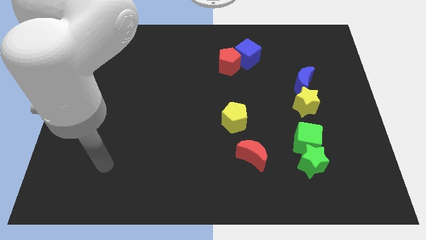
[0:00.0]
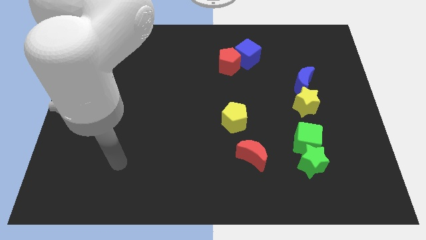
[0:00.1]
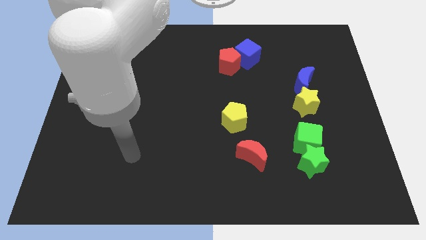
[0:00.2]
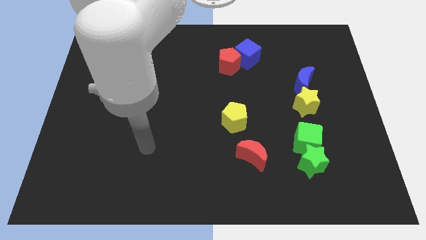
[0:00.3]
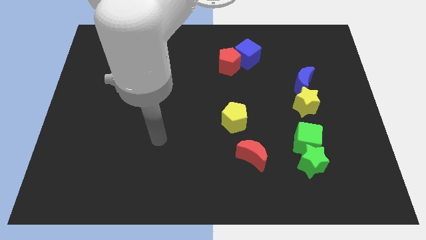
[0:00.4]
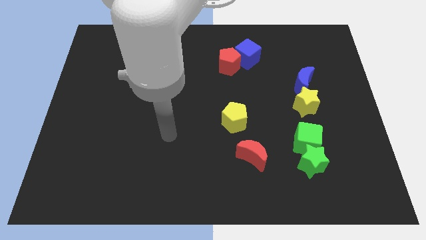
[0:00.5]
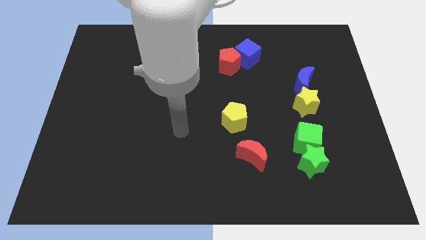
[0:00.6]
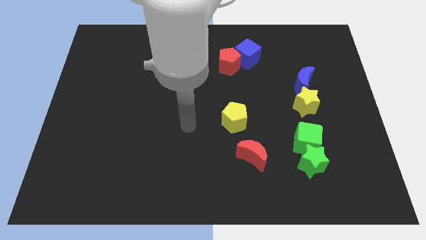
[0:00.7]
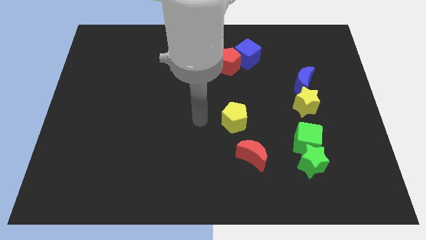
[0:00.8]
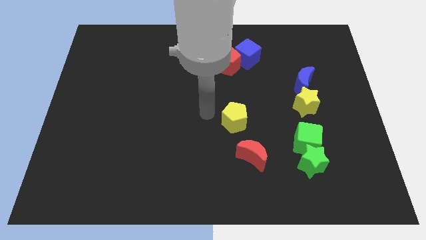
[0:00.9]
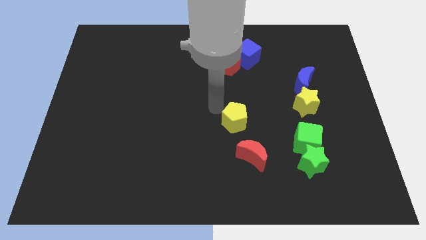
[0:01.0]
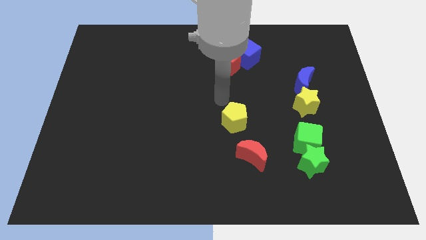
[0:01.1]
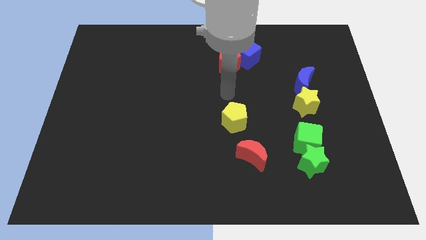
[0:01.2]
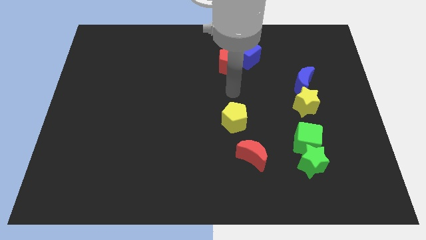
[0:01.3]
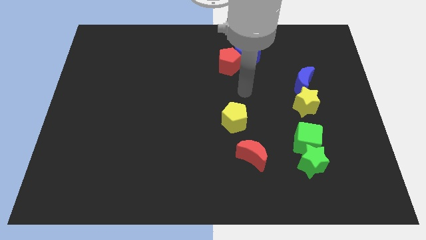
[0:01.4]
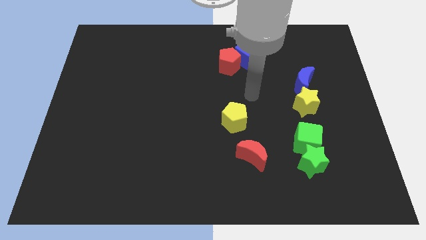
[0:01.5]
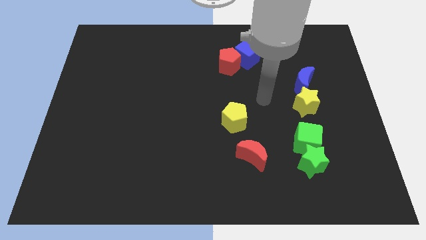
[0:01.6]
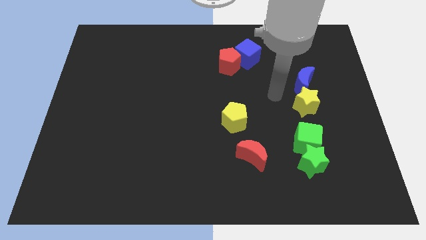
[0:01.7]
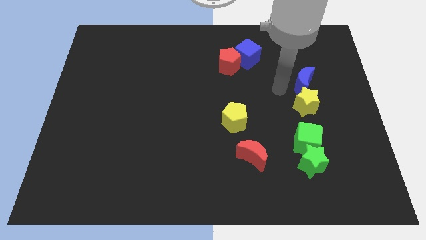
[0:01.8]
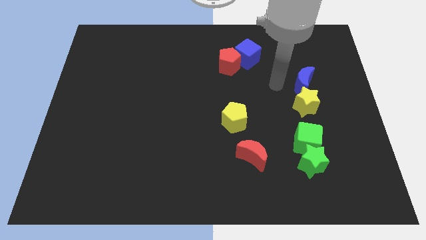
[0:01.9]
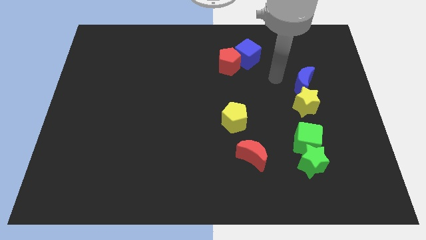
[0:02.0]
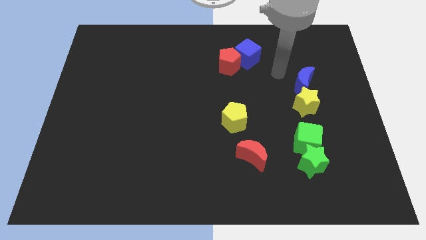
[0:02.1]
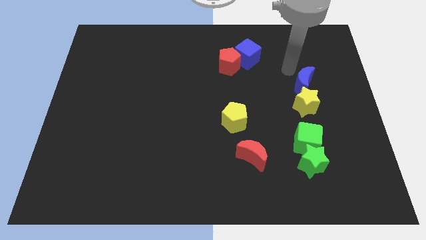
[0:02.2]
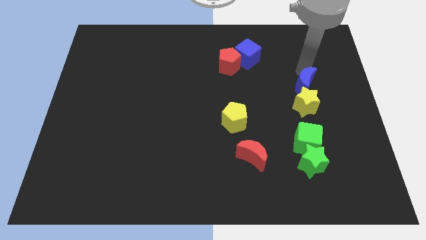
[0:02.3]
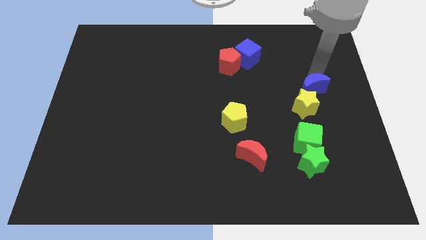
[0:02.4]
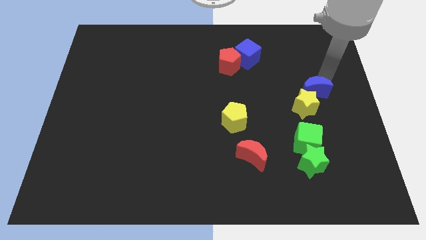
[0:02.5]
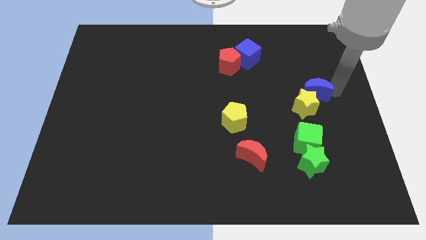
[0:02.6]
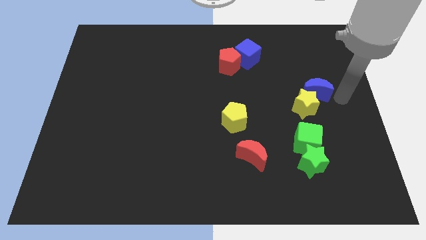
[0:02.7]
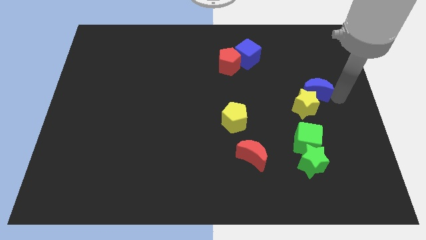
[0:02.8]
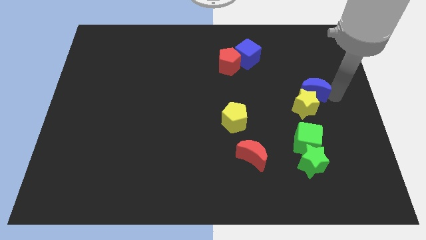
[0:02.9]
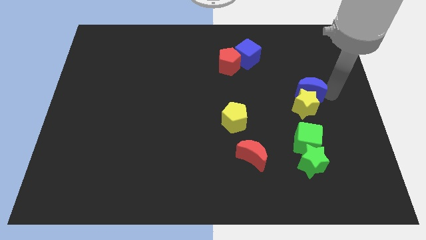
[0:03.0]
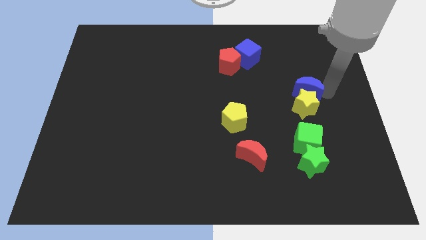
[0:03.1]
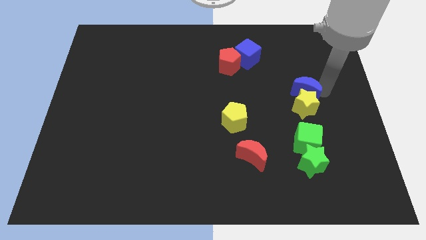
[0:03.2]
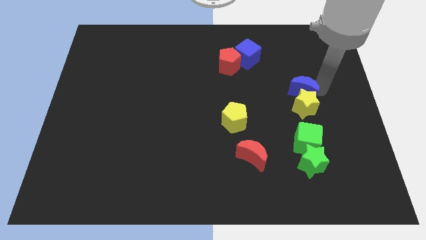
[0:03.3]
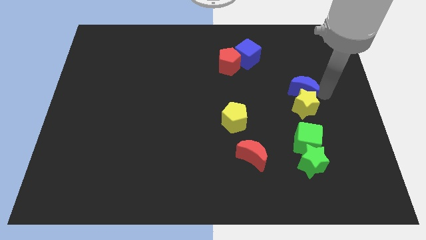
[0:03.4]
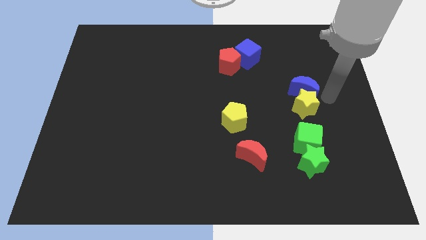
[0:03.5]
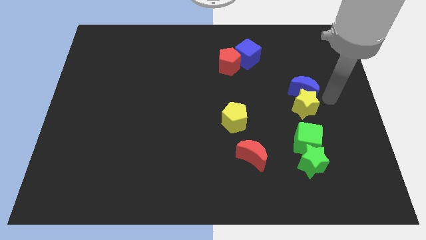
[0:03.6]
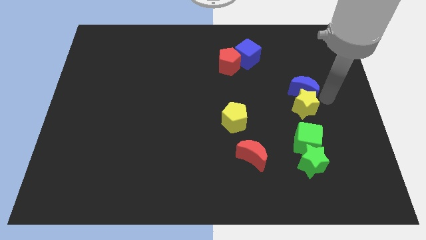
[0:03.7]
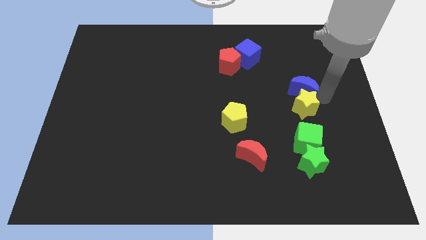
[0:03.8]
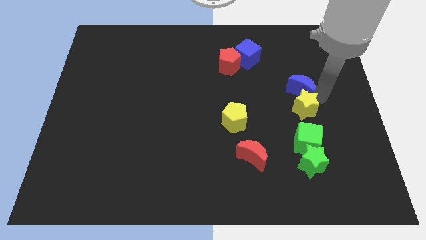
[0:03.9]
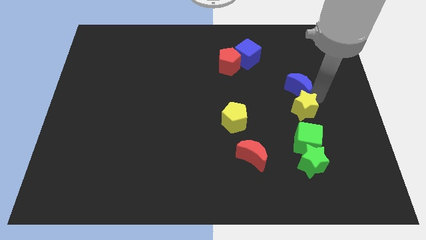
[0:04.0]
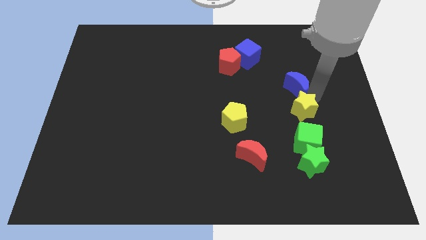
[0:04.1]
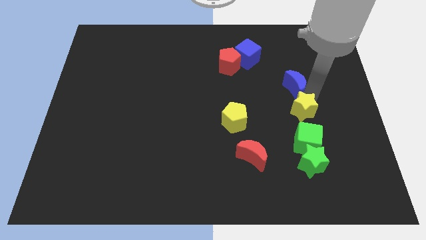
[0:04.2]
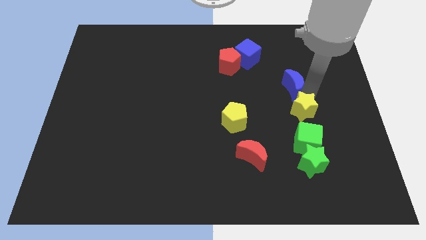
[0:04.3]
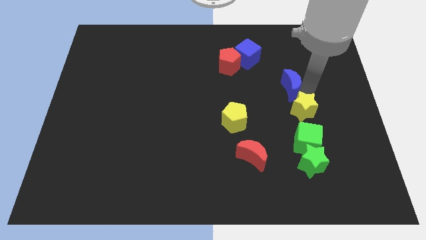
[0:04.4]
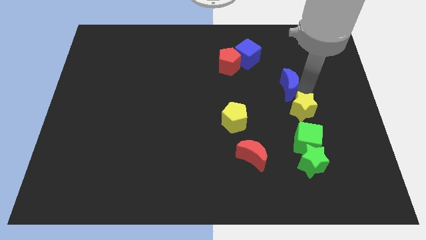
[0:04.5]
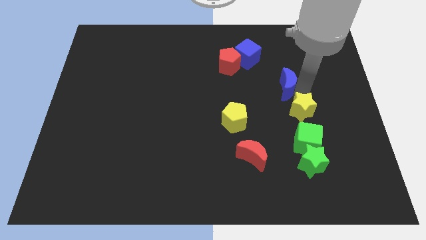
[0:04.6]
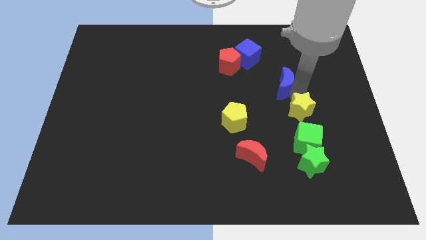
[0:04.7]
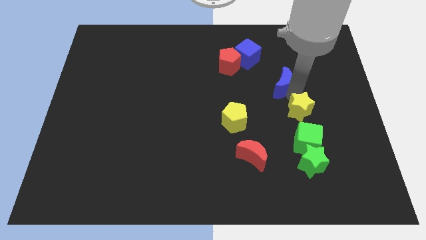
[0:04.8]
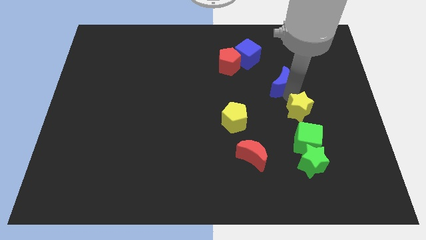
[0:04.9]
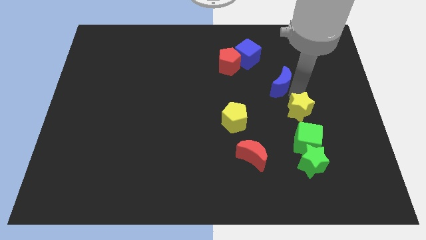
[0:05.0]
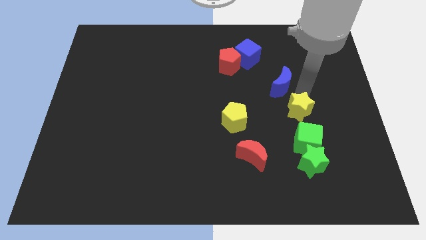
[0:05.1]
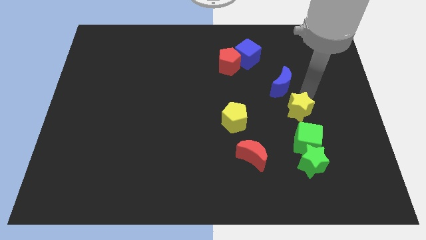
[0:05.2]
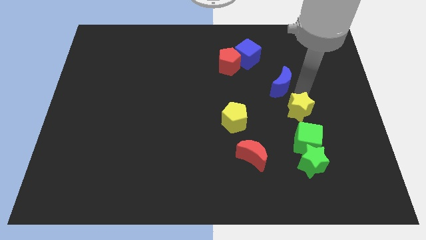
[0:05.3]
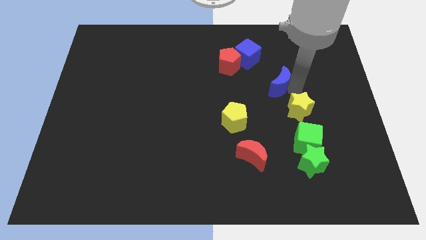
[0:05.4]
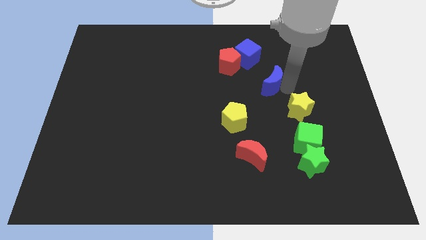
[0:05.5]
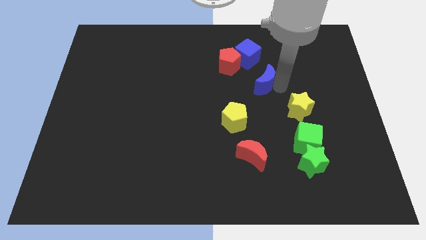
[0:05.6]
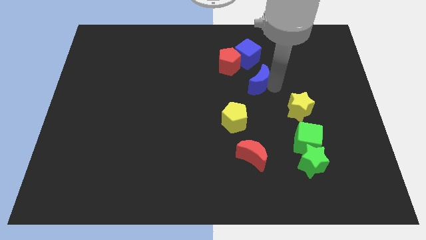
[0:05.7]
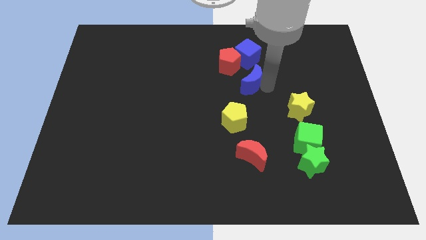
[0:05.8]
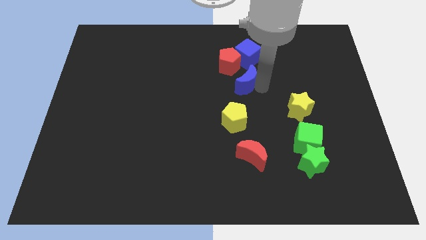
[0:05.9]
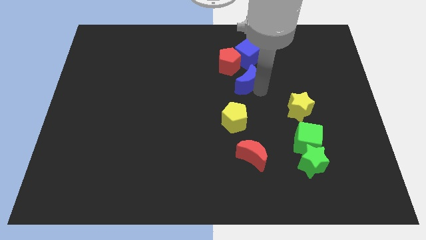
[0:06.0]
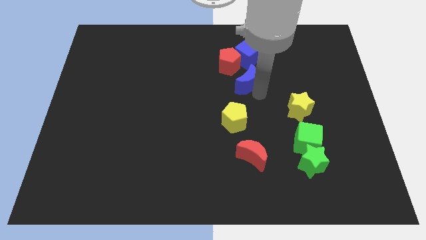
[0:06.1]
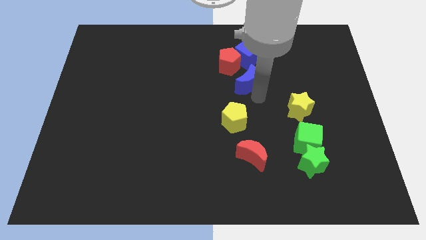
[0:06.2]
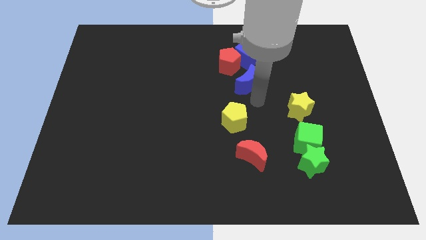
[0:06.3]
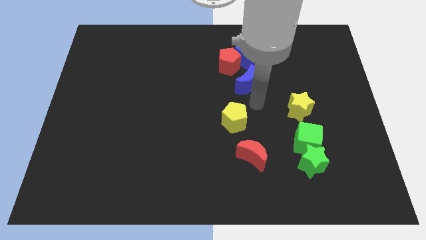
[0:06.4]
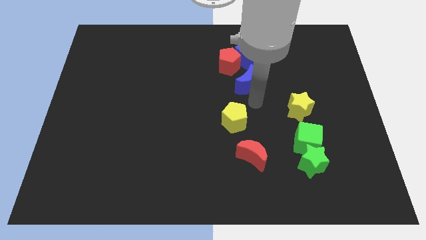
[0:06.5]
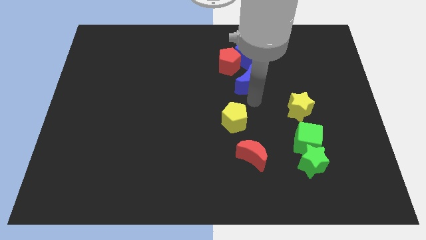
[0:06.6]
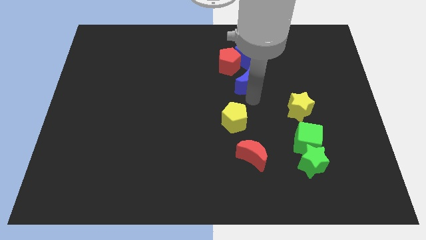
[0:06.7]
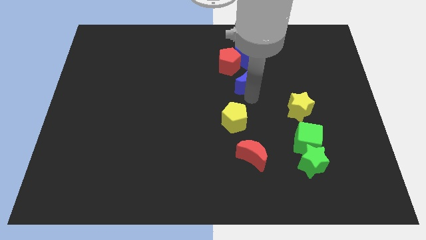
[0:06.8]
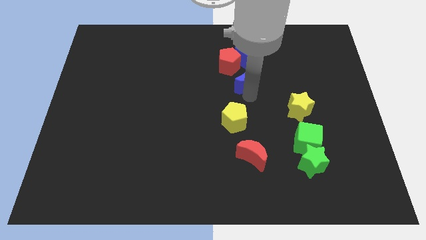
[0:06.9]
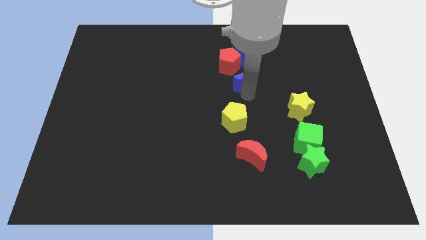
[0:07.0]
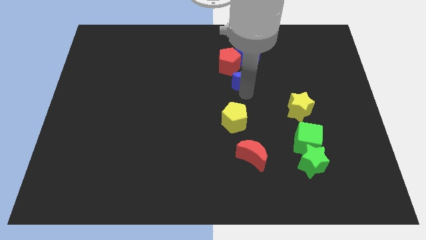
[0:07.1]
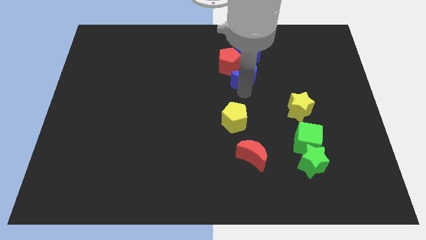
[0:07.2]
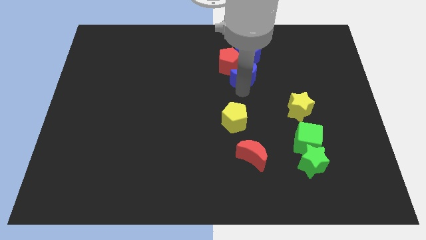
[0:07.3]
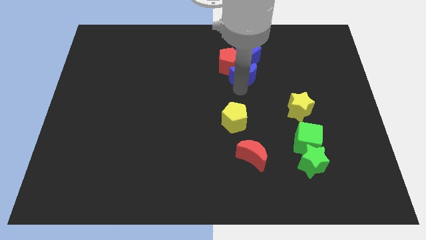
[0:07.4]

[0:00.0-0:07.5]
move the blue moon towards the red pentagon
